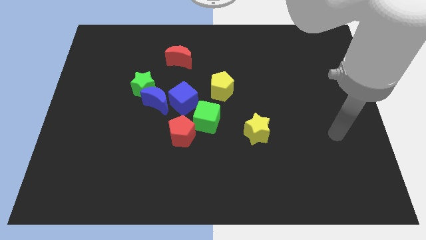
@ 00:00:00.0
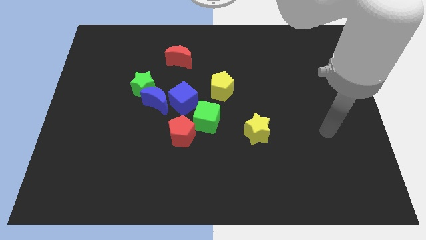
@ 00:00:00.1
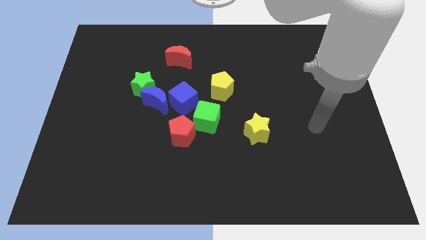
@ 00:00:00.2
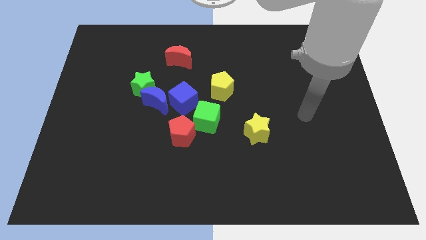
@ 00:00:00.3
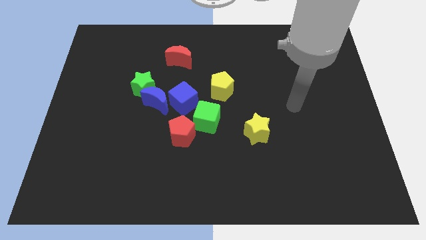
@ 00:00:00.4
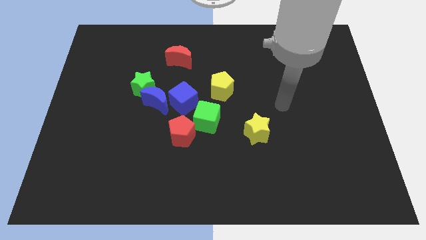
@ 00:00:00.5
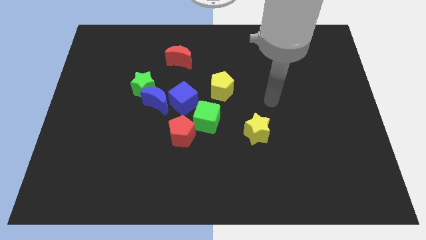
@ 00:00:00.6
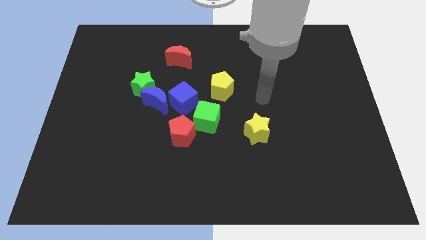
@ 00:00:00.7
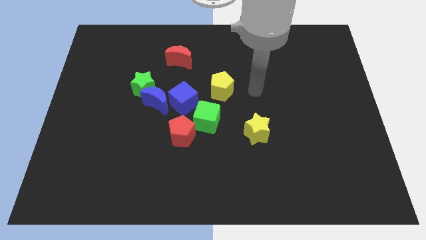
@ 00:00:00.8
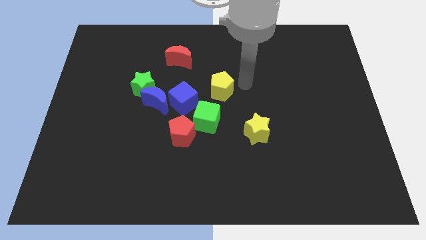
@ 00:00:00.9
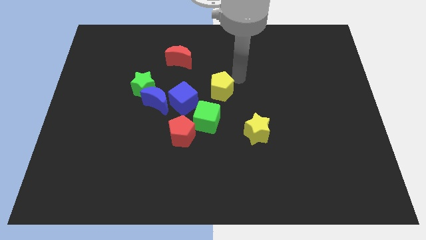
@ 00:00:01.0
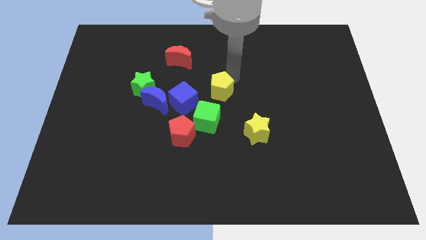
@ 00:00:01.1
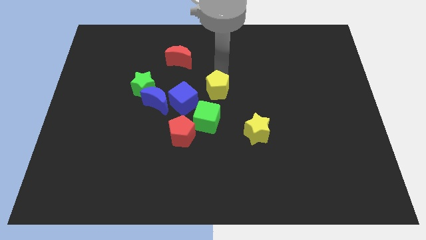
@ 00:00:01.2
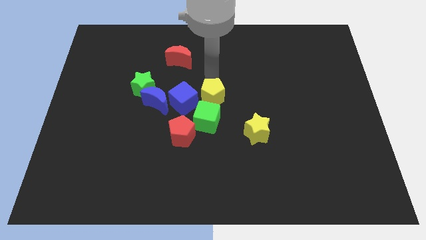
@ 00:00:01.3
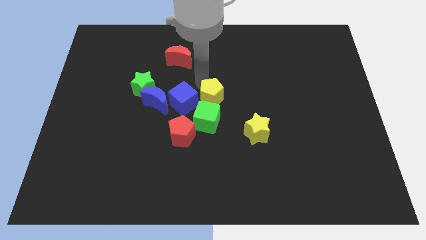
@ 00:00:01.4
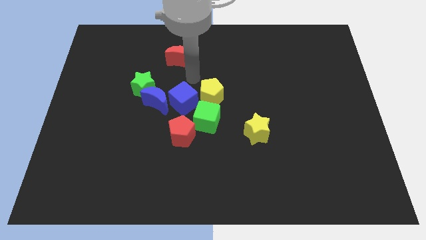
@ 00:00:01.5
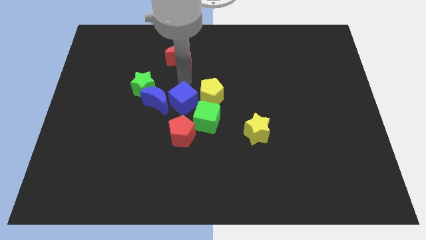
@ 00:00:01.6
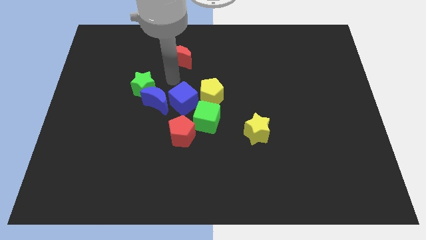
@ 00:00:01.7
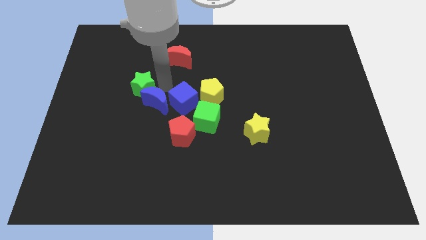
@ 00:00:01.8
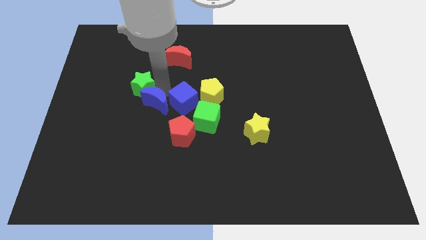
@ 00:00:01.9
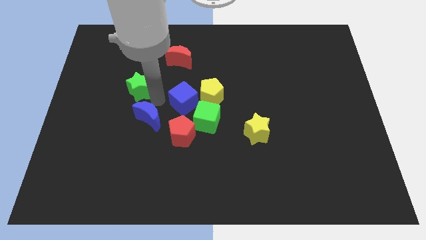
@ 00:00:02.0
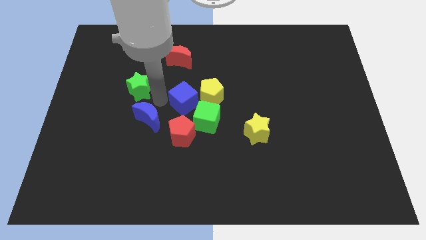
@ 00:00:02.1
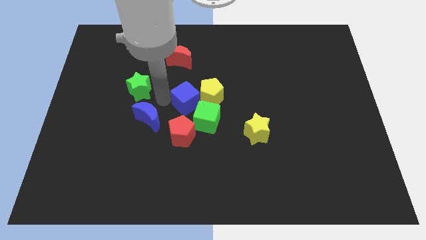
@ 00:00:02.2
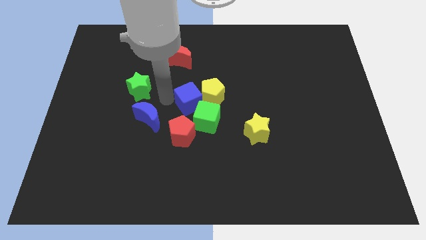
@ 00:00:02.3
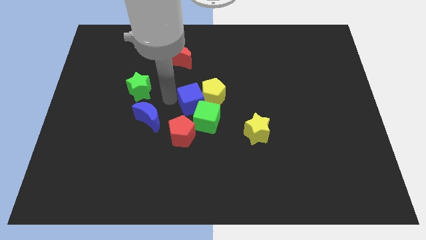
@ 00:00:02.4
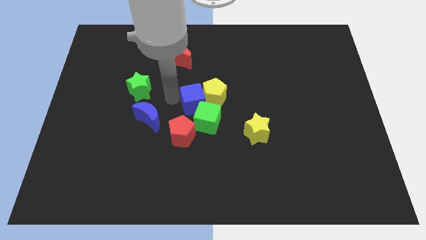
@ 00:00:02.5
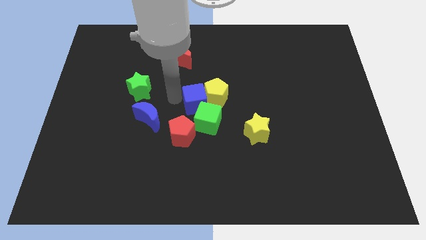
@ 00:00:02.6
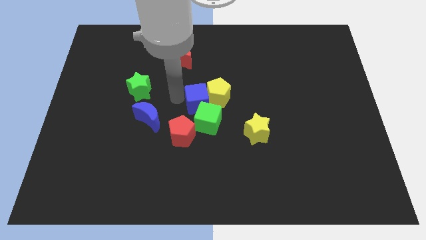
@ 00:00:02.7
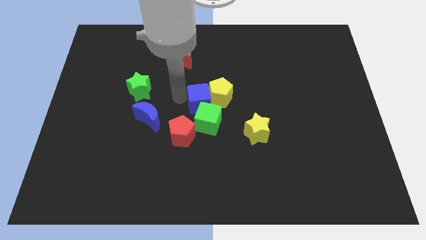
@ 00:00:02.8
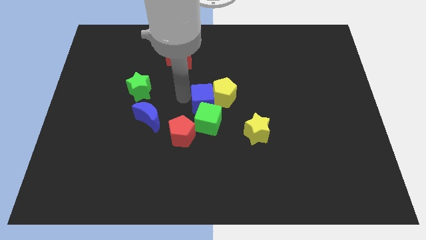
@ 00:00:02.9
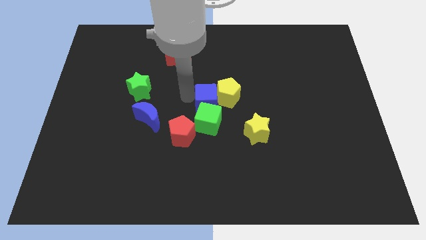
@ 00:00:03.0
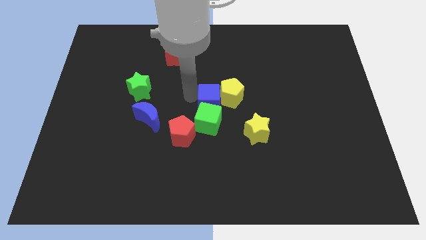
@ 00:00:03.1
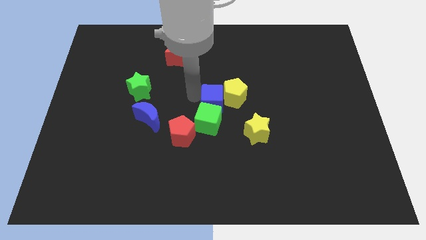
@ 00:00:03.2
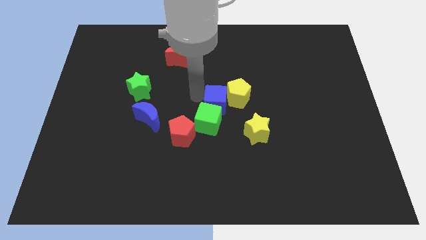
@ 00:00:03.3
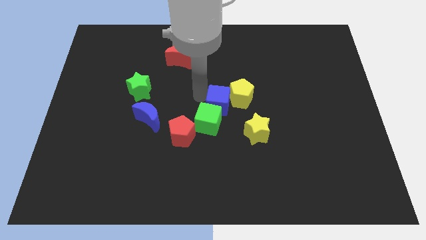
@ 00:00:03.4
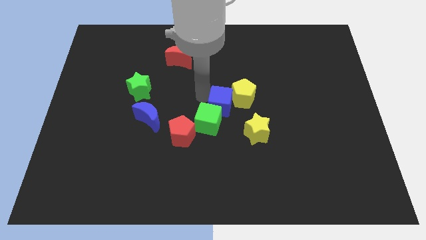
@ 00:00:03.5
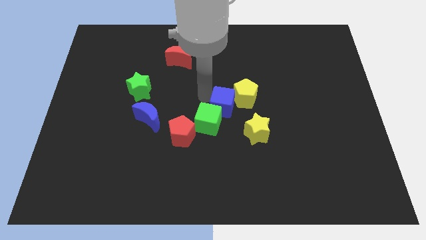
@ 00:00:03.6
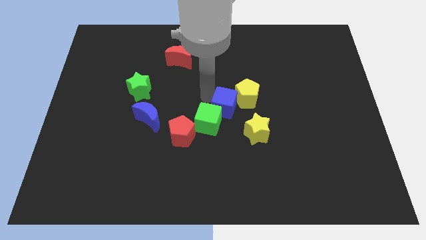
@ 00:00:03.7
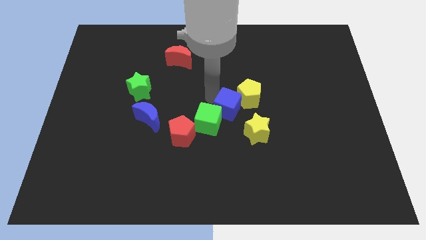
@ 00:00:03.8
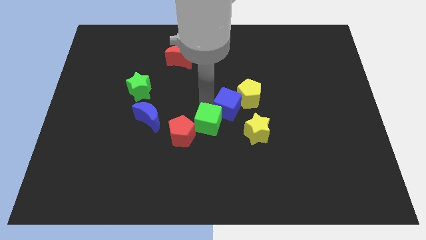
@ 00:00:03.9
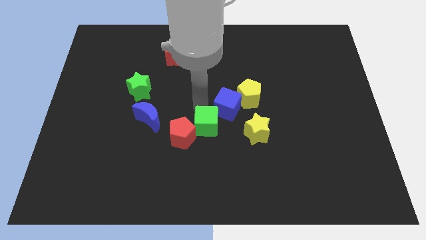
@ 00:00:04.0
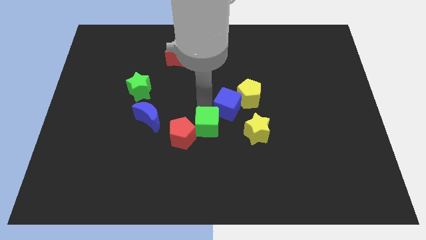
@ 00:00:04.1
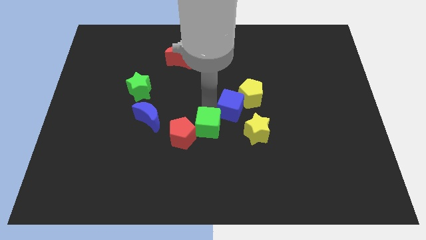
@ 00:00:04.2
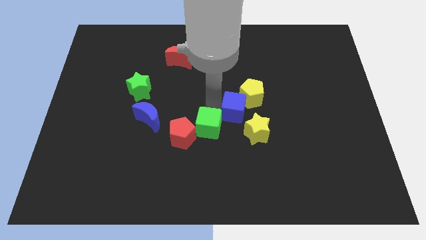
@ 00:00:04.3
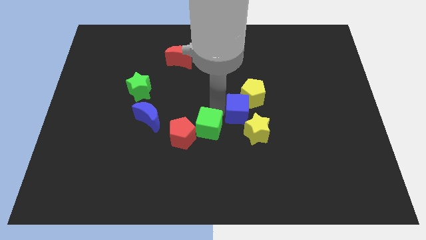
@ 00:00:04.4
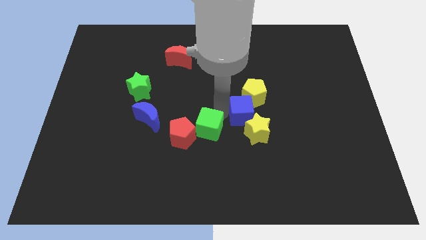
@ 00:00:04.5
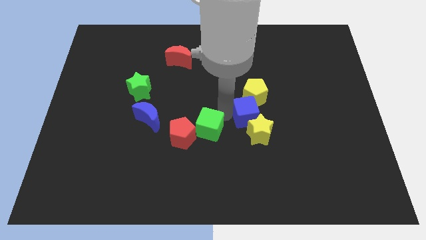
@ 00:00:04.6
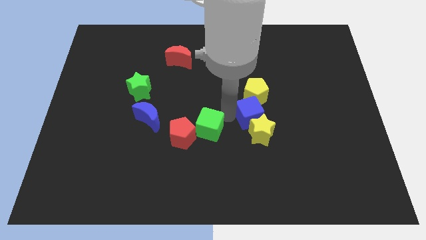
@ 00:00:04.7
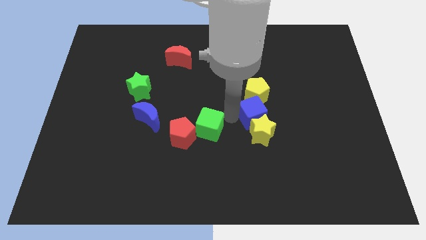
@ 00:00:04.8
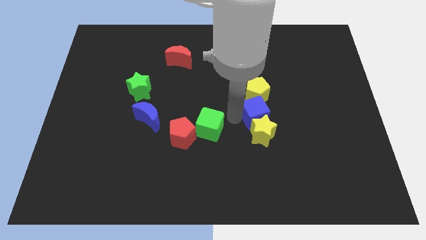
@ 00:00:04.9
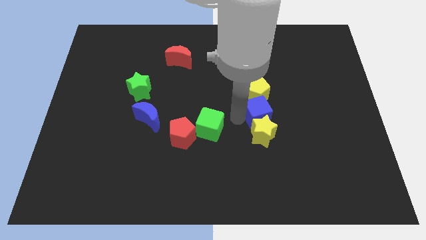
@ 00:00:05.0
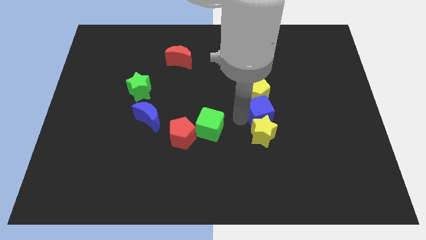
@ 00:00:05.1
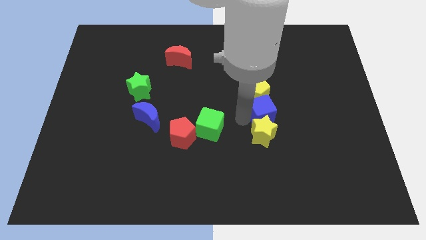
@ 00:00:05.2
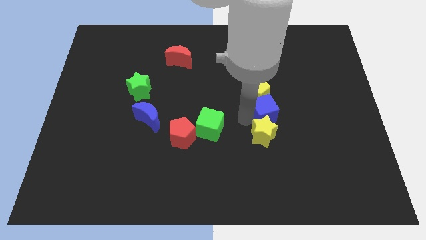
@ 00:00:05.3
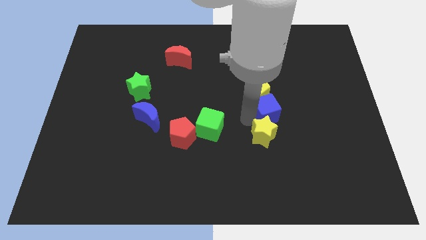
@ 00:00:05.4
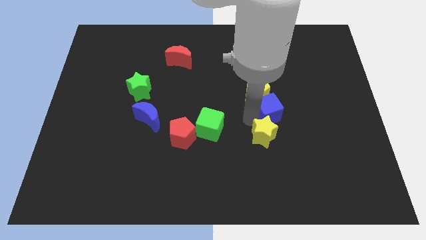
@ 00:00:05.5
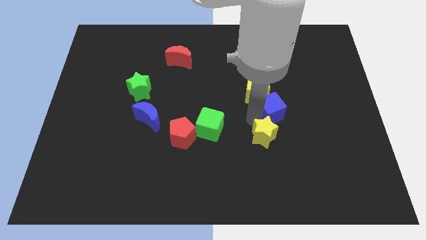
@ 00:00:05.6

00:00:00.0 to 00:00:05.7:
push the blue cube to the right

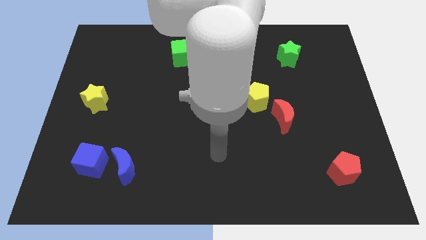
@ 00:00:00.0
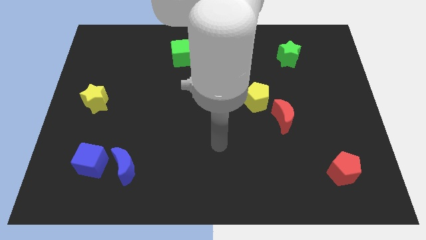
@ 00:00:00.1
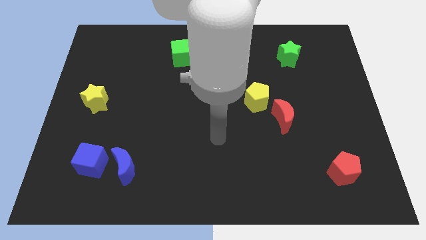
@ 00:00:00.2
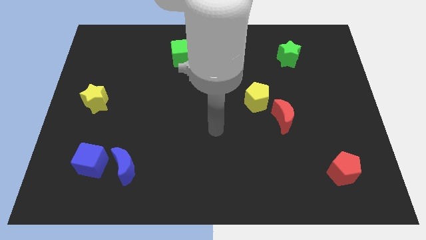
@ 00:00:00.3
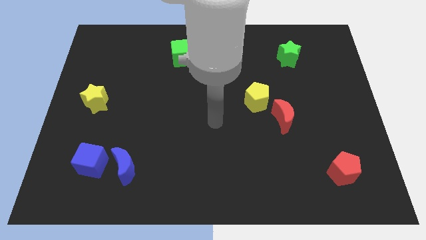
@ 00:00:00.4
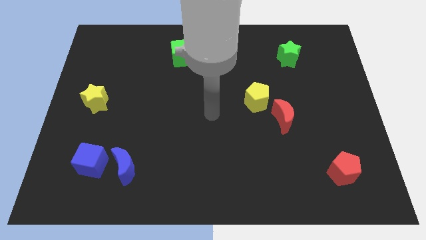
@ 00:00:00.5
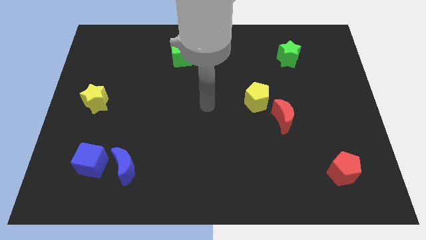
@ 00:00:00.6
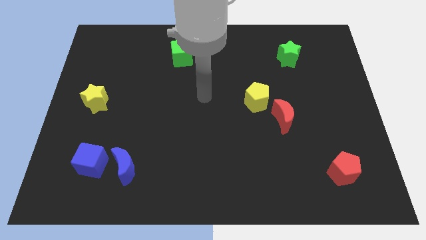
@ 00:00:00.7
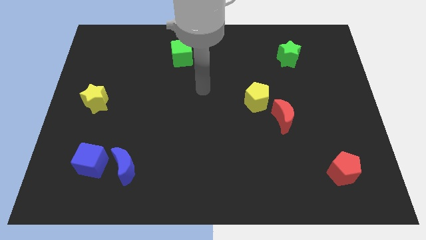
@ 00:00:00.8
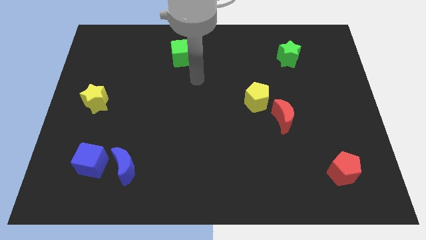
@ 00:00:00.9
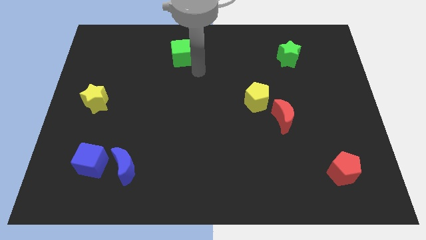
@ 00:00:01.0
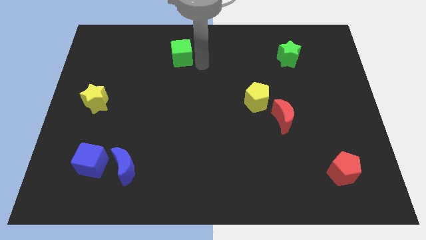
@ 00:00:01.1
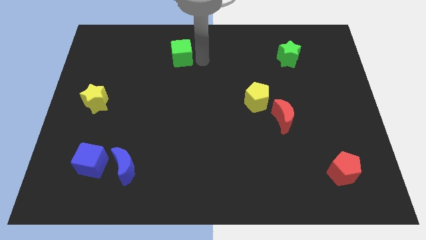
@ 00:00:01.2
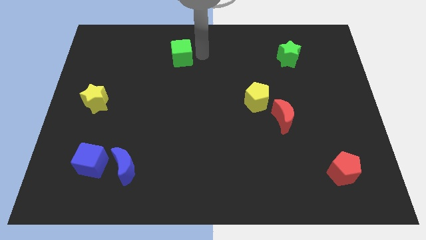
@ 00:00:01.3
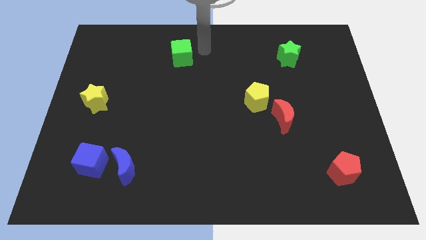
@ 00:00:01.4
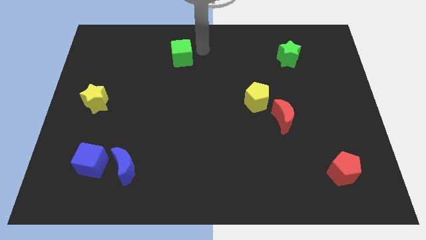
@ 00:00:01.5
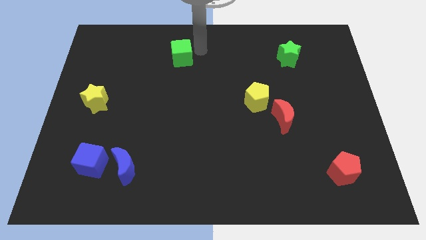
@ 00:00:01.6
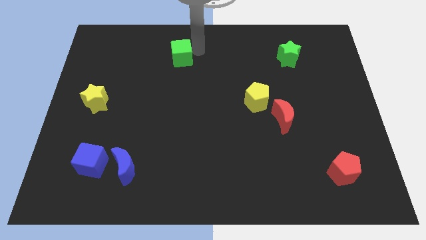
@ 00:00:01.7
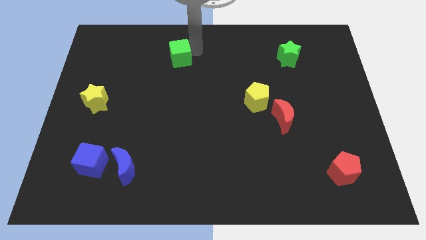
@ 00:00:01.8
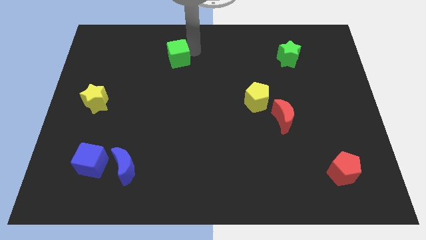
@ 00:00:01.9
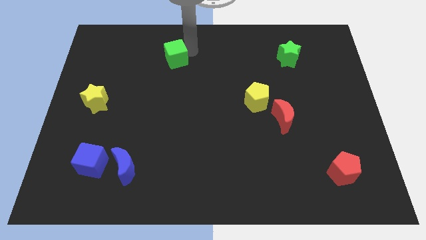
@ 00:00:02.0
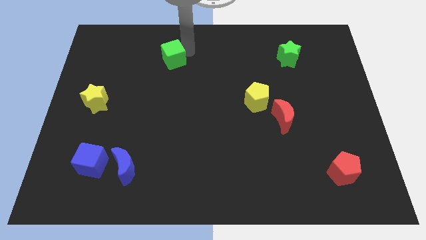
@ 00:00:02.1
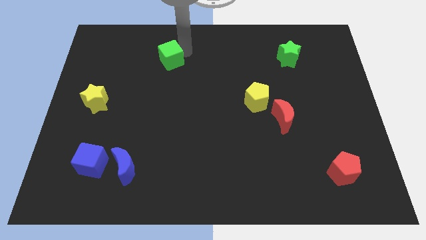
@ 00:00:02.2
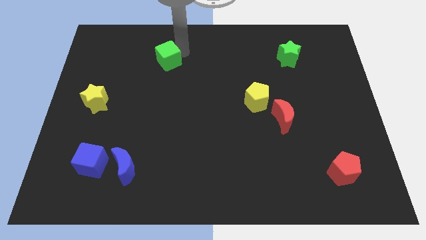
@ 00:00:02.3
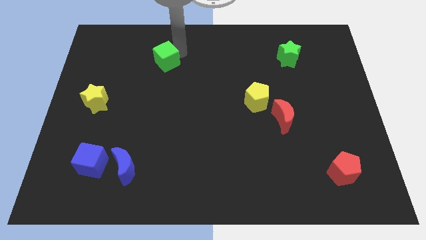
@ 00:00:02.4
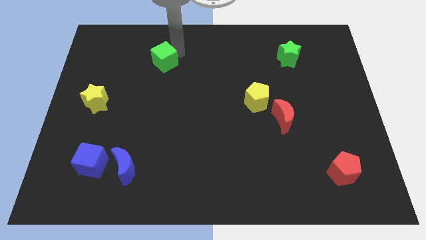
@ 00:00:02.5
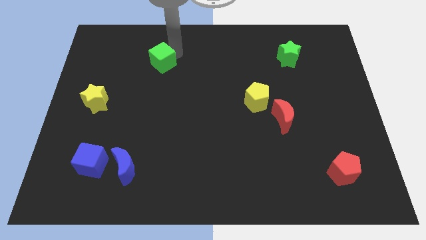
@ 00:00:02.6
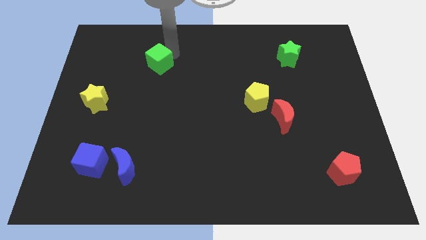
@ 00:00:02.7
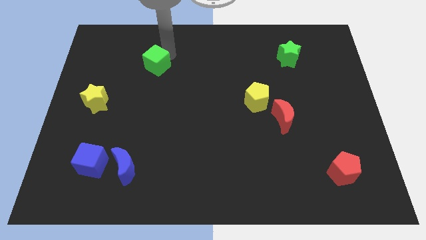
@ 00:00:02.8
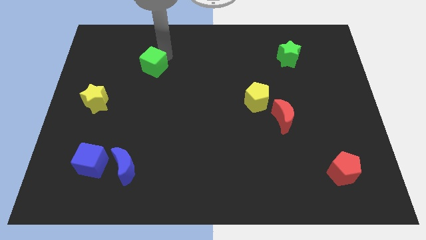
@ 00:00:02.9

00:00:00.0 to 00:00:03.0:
slide the green cube downwards and left somewhat
